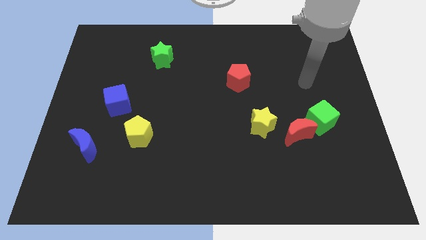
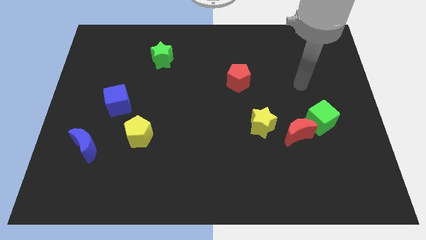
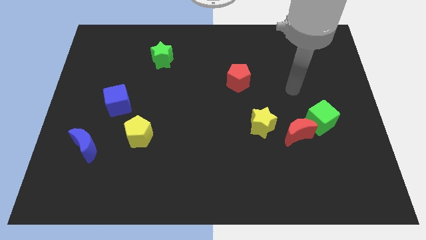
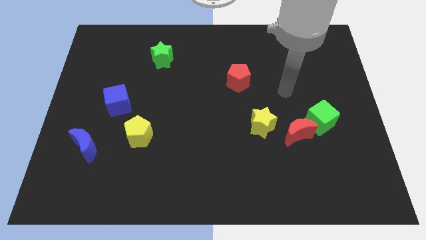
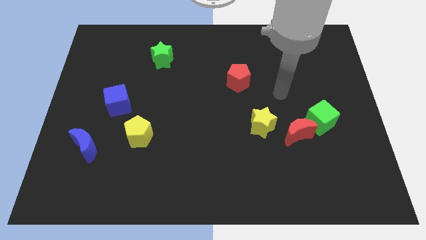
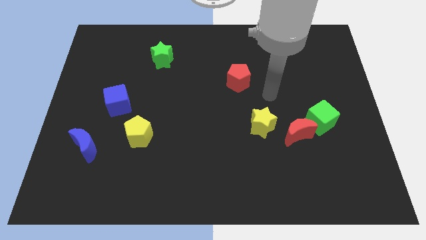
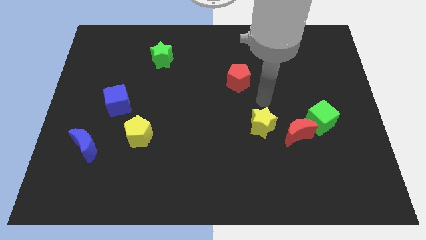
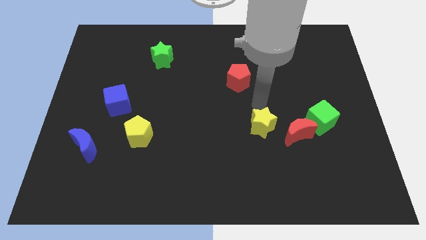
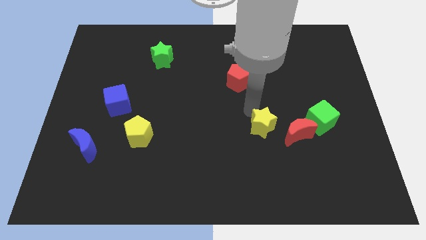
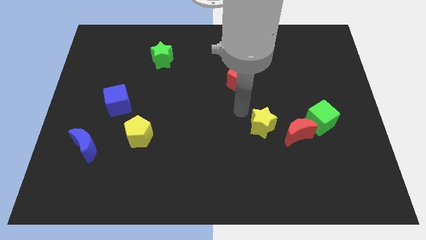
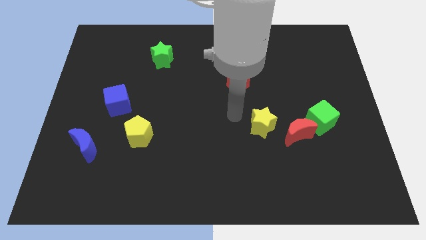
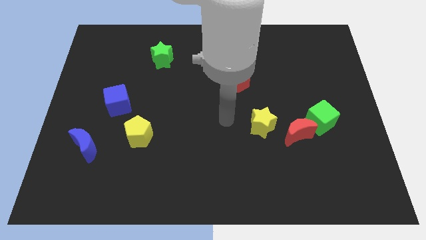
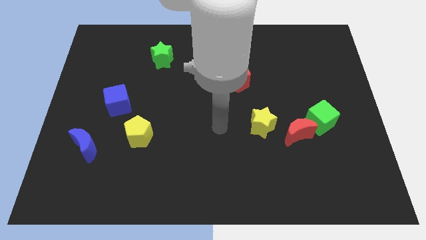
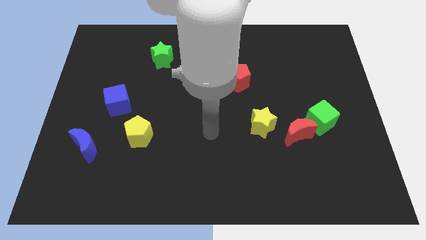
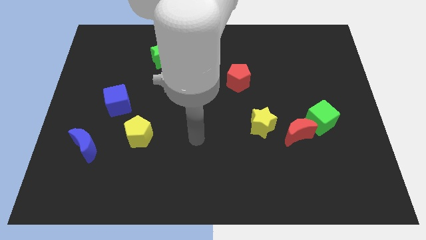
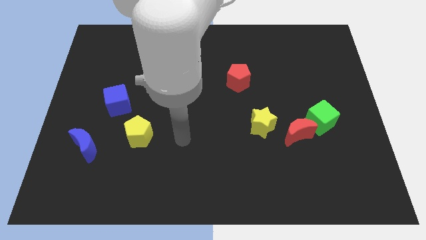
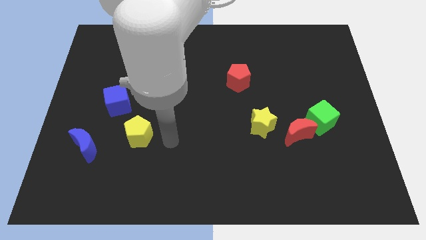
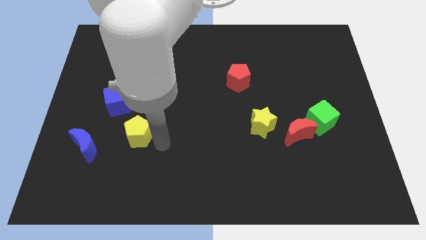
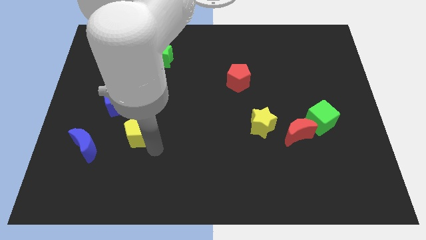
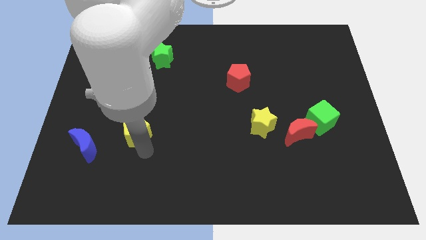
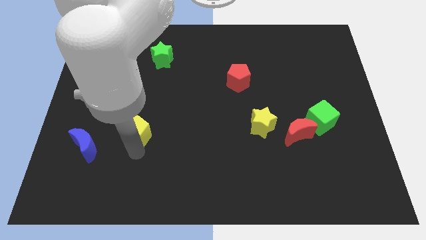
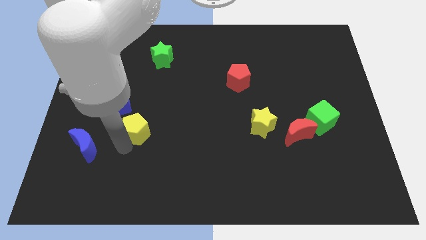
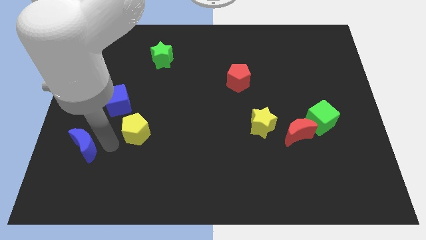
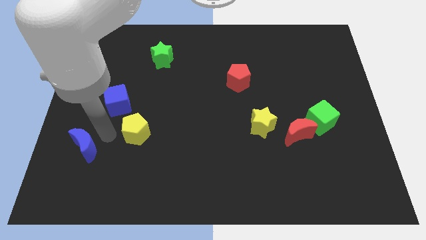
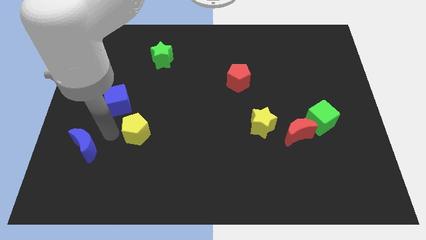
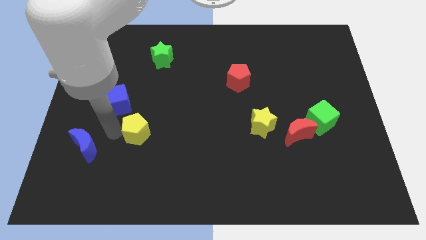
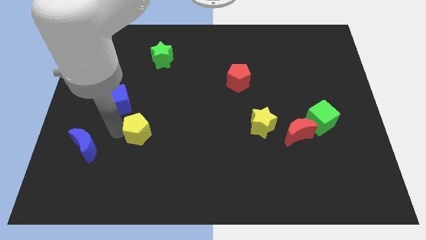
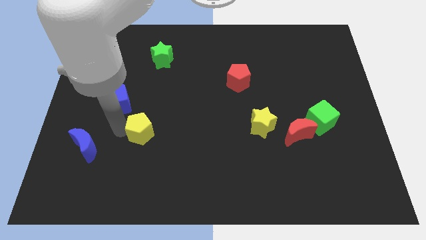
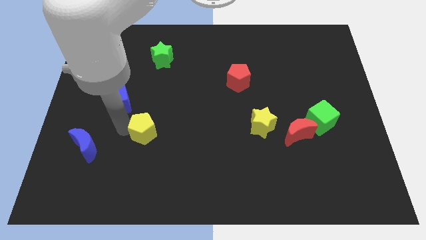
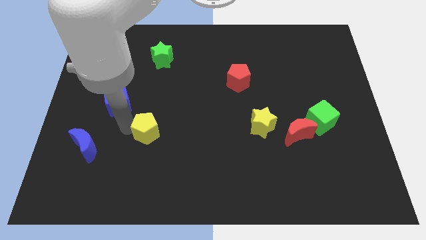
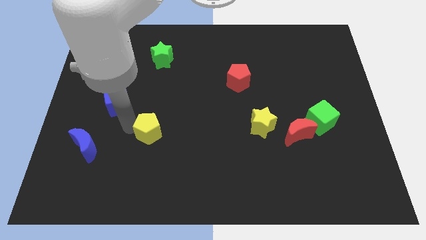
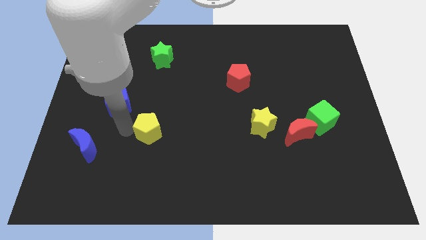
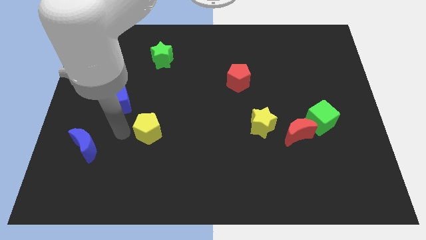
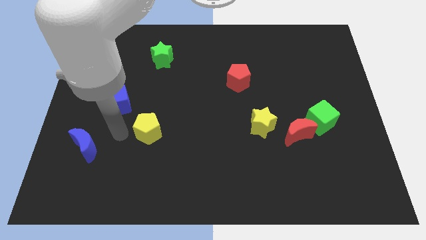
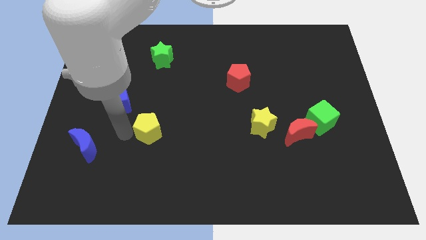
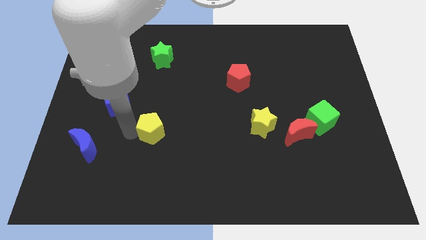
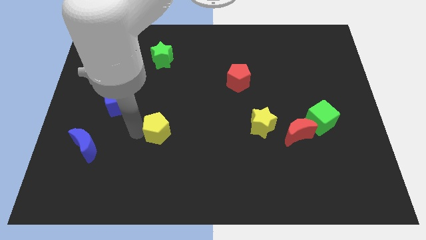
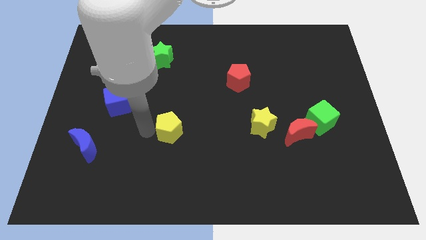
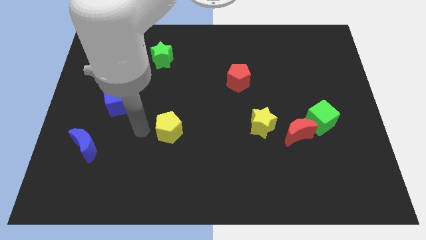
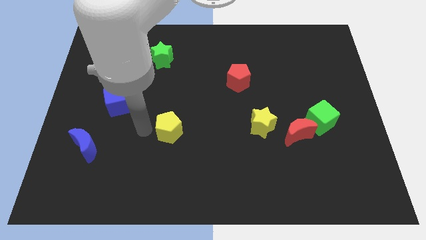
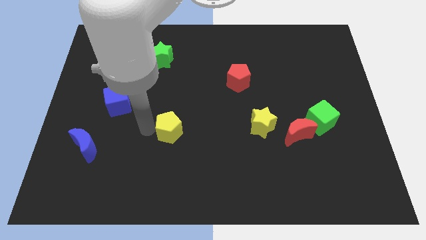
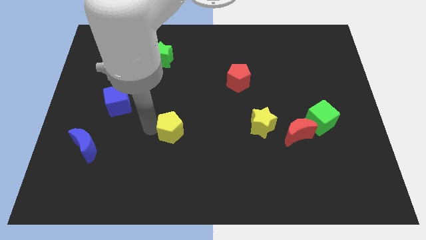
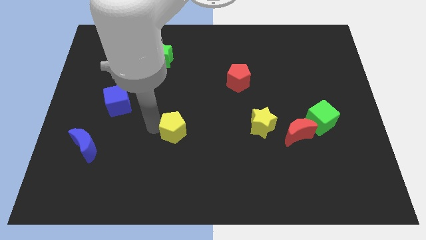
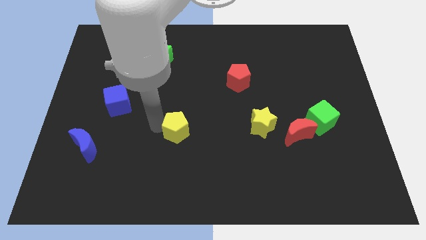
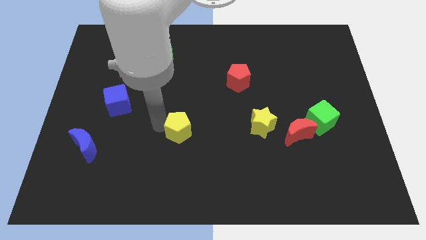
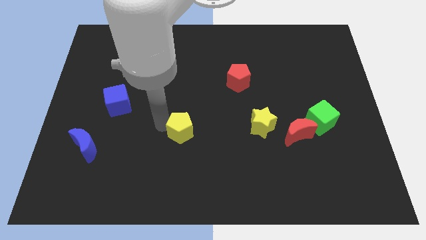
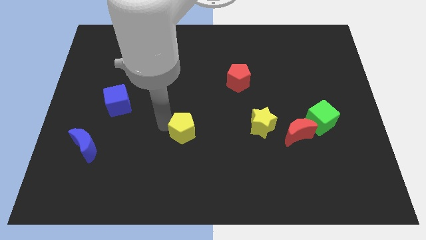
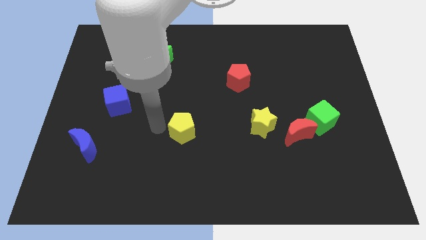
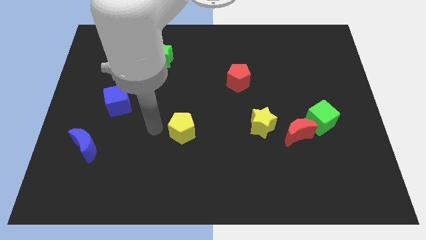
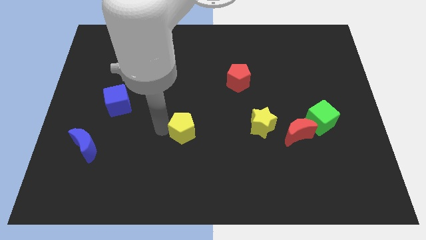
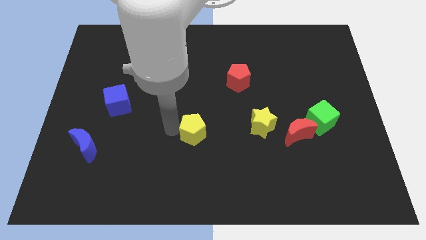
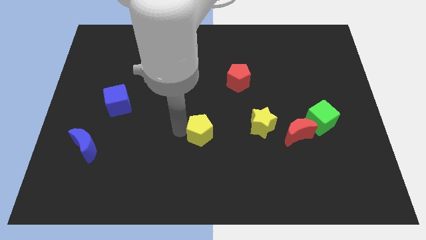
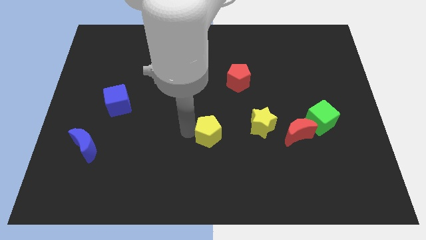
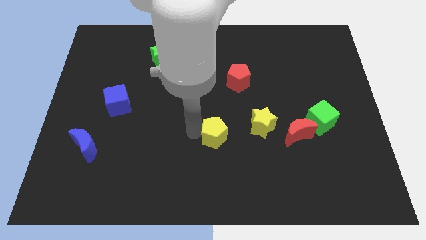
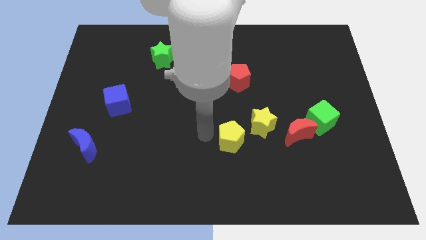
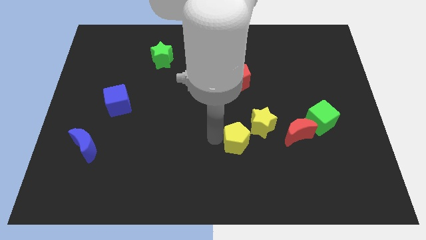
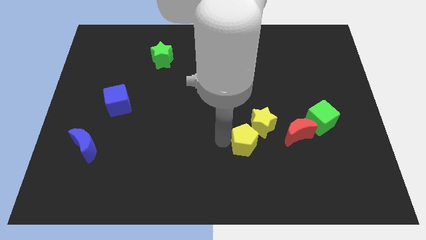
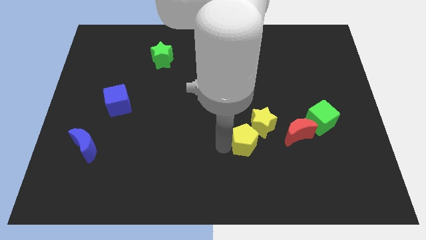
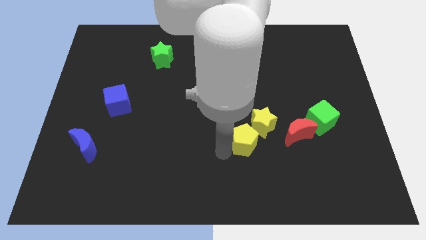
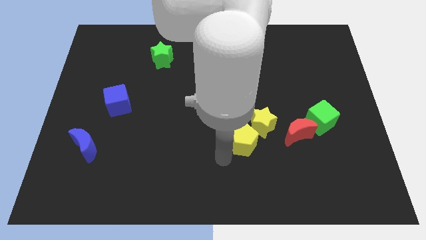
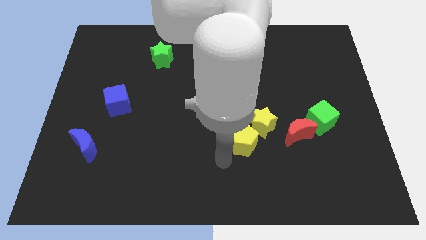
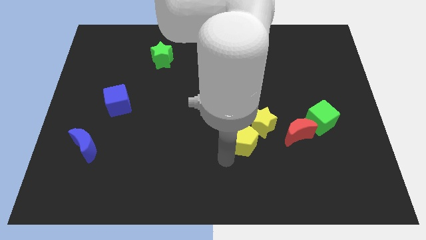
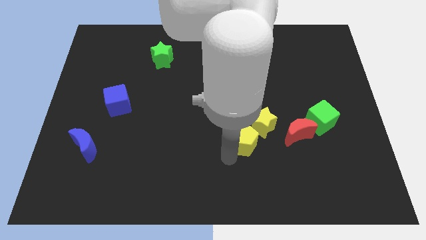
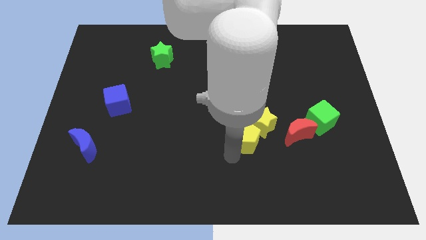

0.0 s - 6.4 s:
put the yellow pentagon close to the yellow star

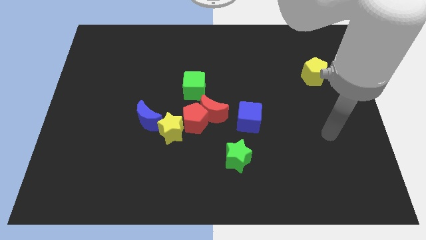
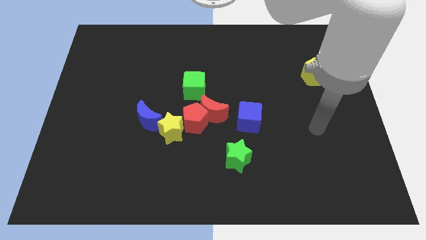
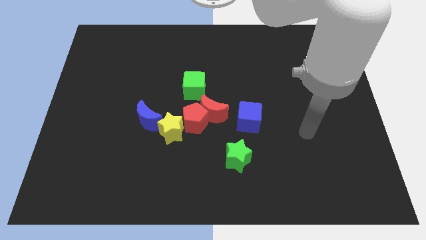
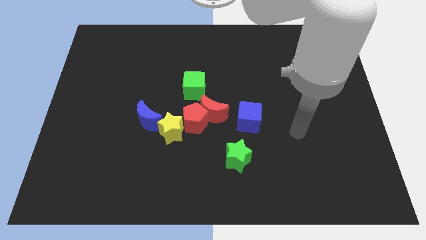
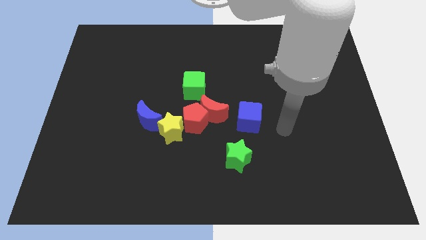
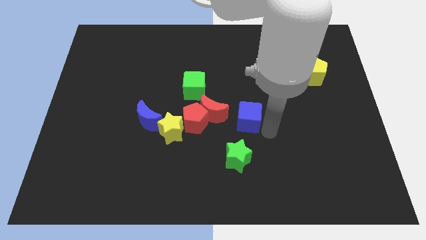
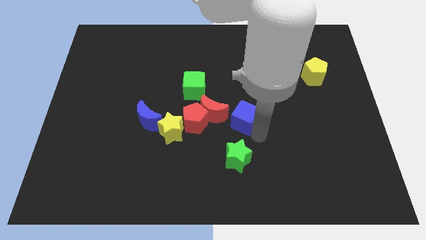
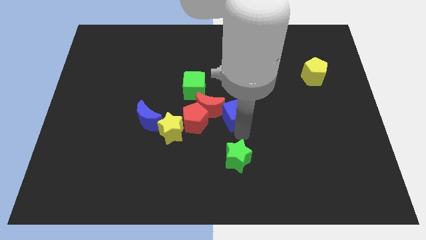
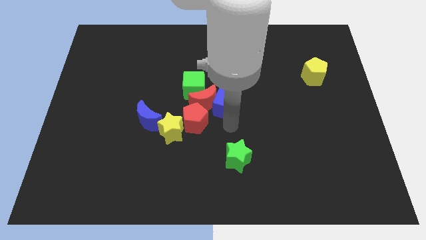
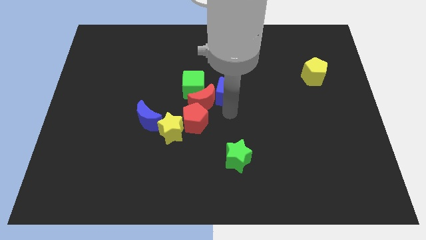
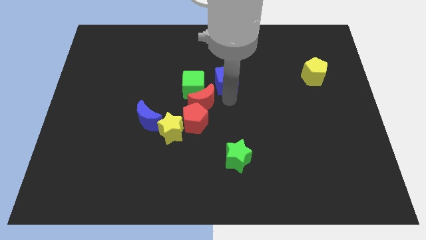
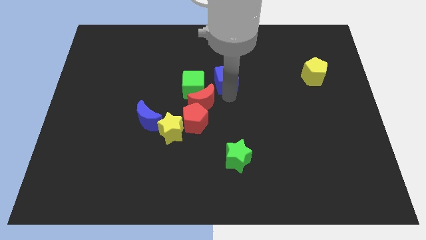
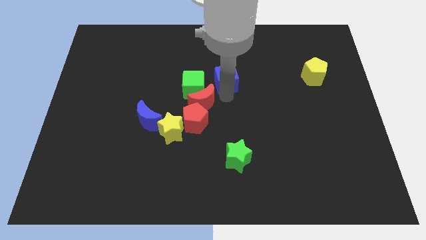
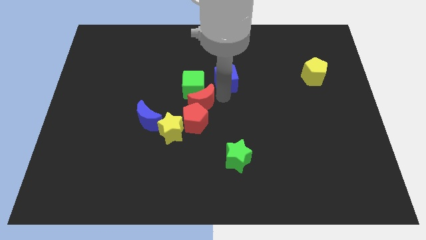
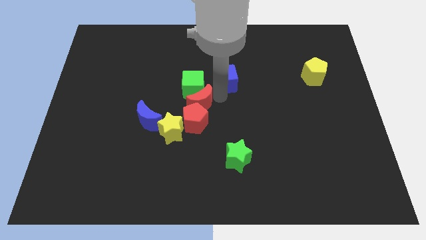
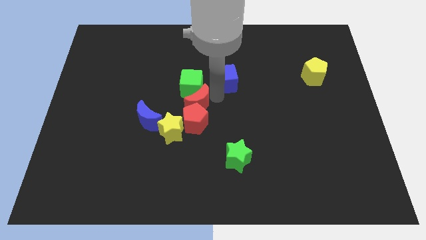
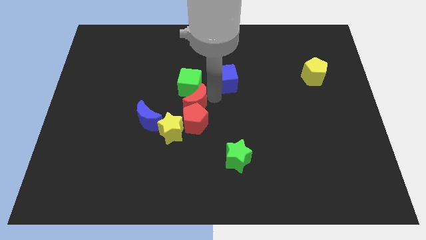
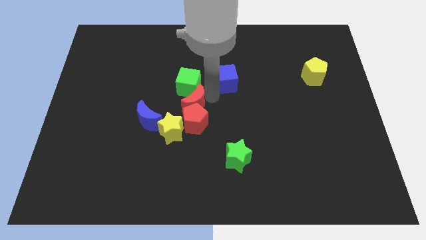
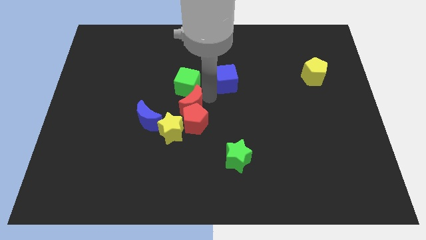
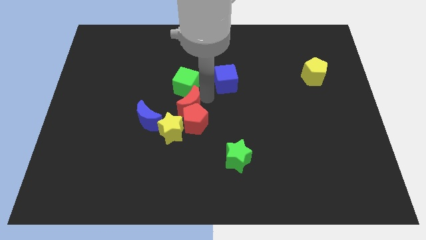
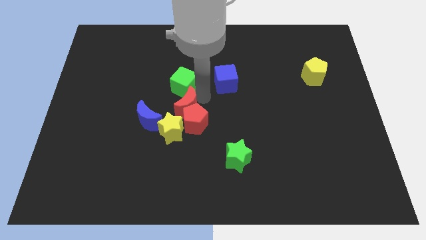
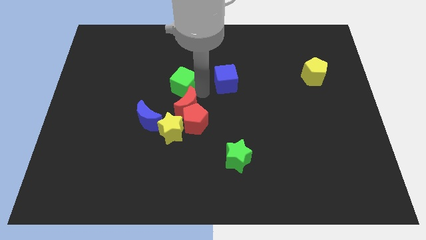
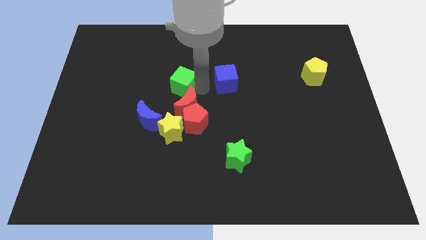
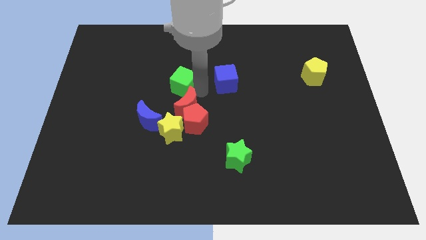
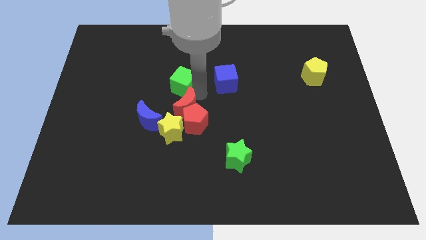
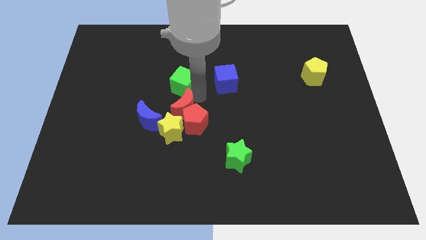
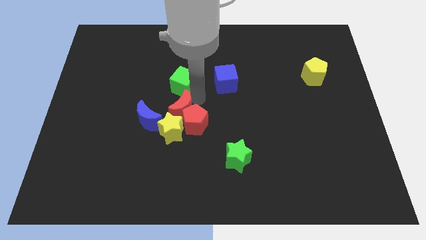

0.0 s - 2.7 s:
slide the red moon close to the yellow star
